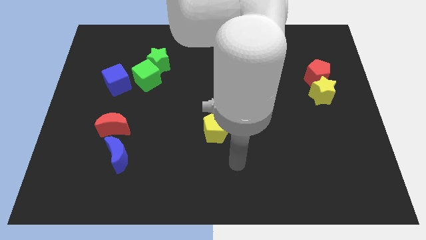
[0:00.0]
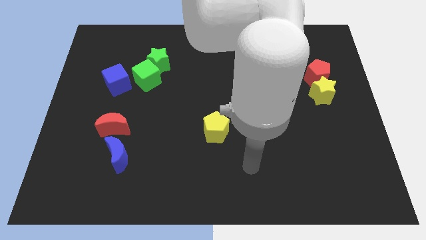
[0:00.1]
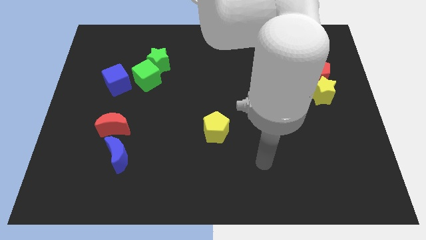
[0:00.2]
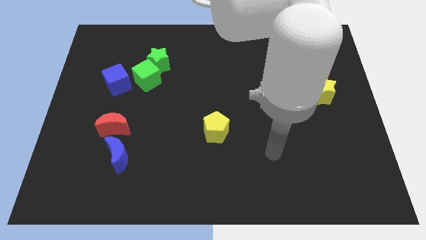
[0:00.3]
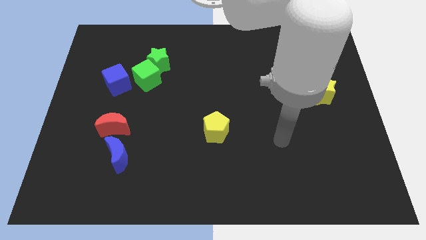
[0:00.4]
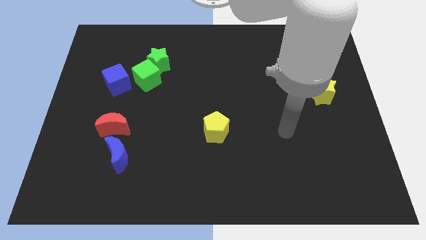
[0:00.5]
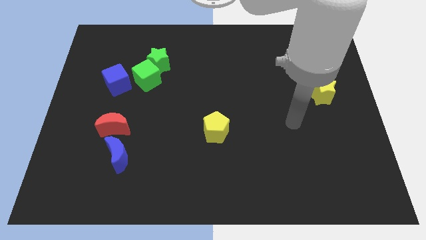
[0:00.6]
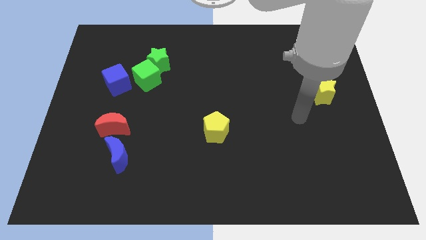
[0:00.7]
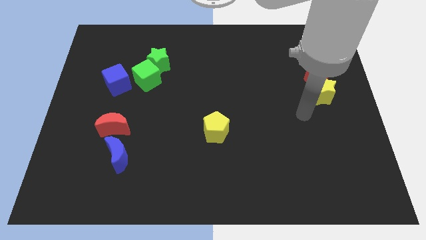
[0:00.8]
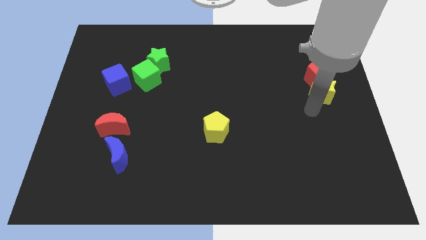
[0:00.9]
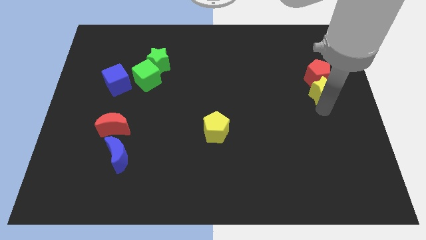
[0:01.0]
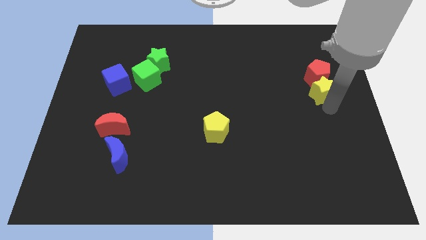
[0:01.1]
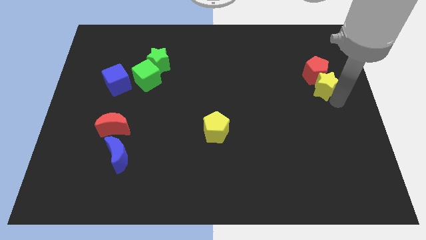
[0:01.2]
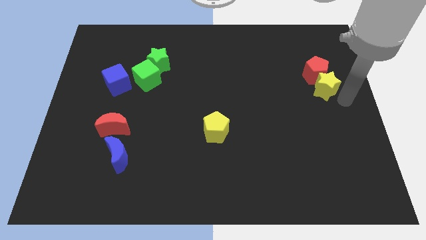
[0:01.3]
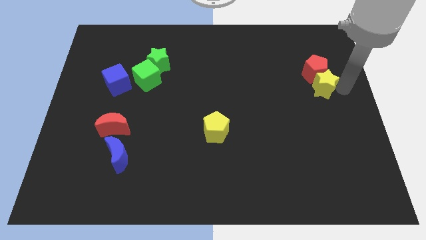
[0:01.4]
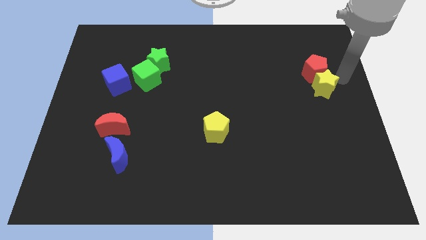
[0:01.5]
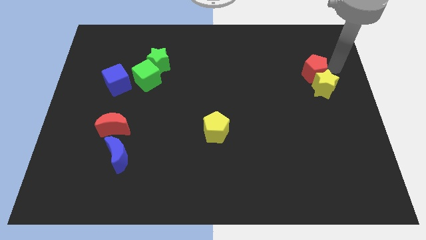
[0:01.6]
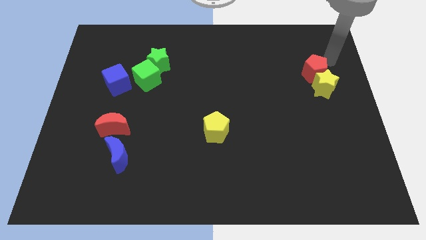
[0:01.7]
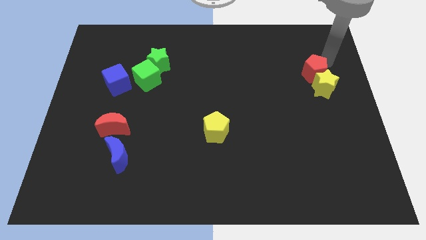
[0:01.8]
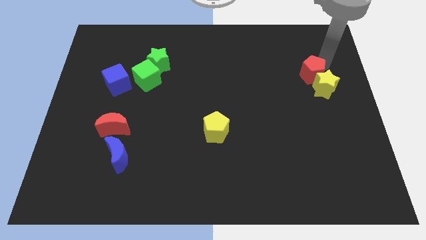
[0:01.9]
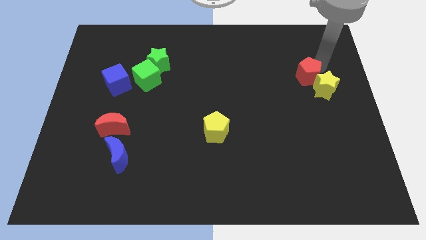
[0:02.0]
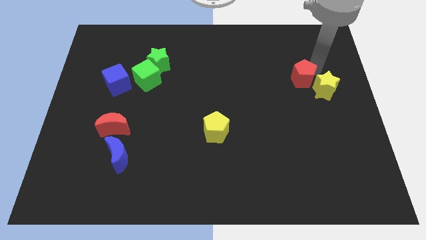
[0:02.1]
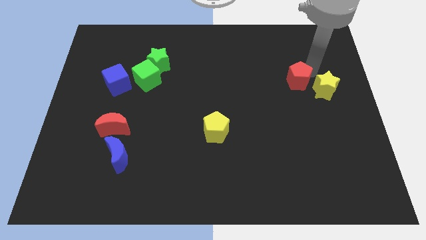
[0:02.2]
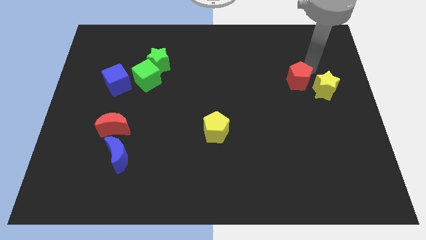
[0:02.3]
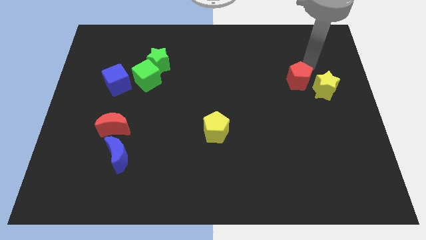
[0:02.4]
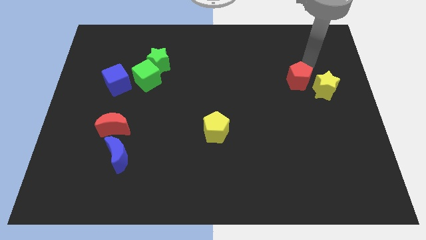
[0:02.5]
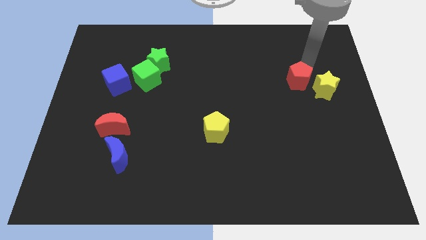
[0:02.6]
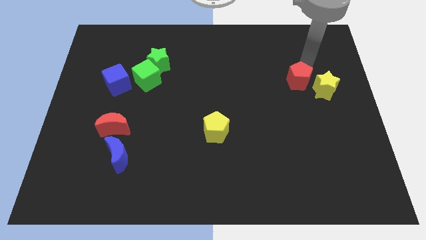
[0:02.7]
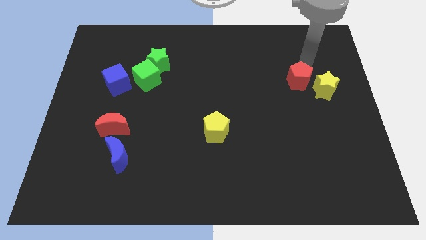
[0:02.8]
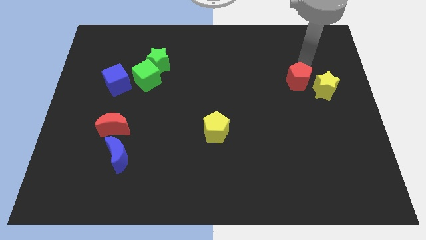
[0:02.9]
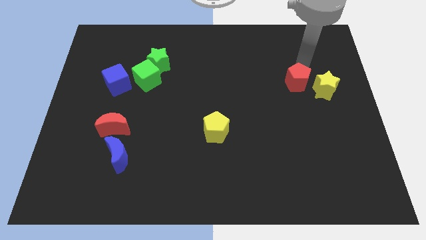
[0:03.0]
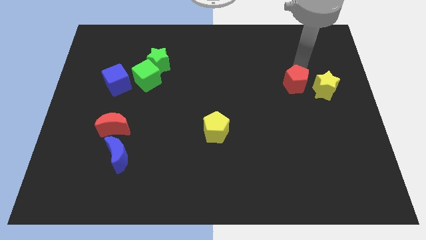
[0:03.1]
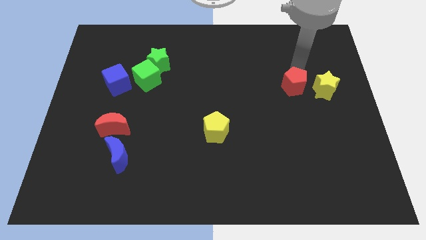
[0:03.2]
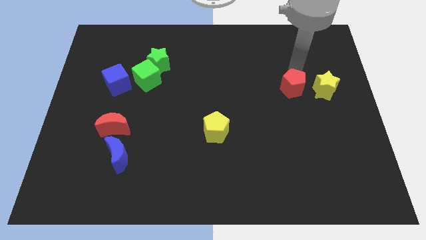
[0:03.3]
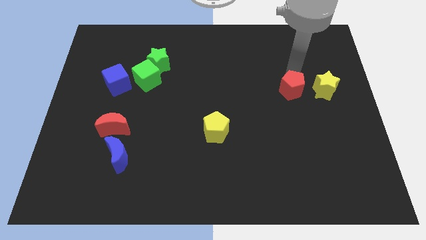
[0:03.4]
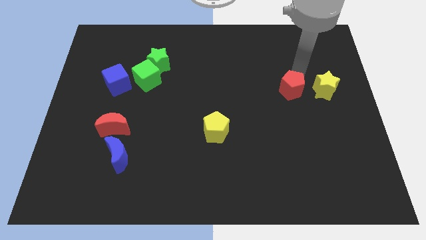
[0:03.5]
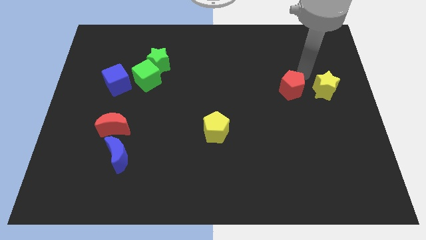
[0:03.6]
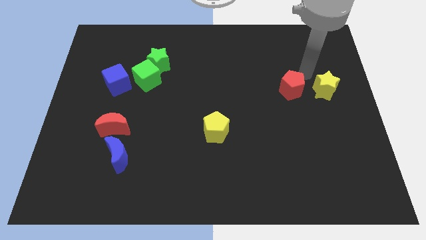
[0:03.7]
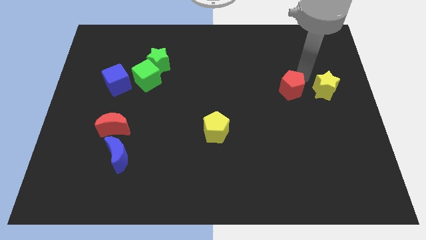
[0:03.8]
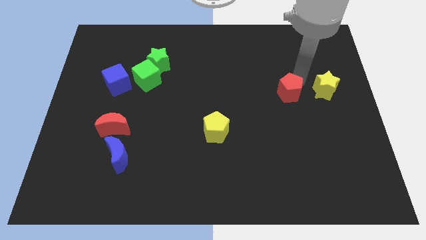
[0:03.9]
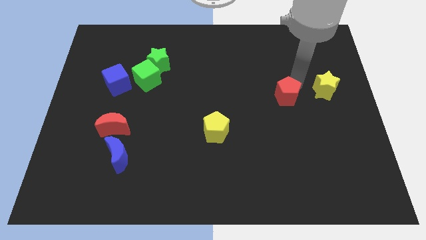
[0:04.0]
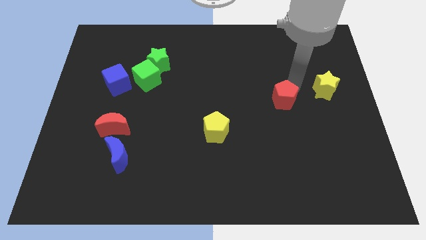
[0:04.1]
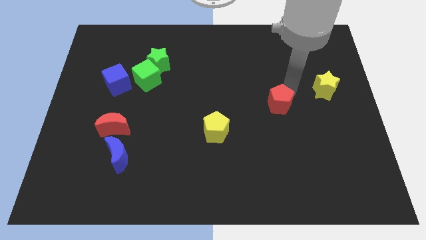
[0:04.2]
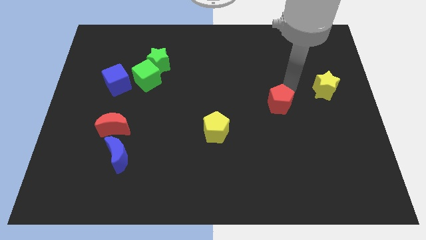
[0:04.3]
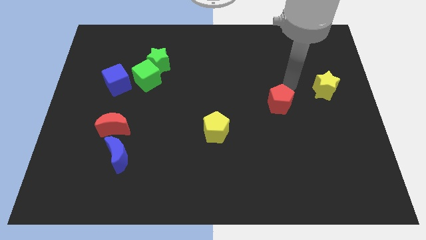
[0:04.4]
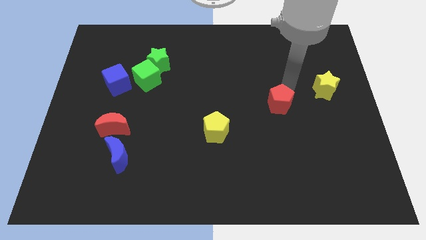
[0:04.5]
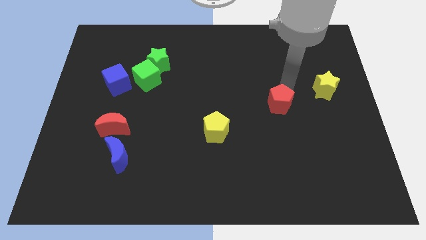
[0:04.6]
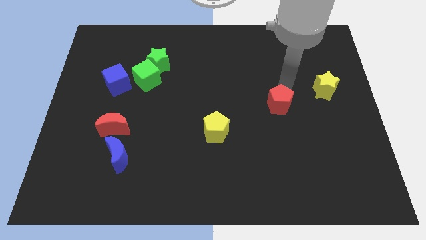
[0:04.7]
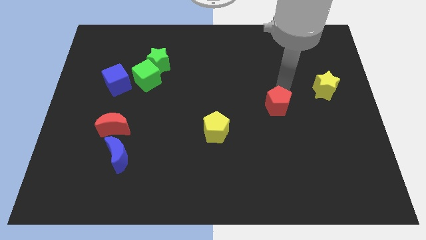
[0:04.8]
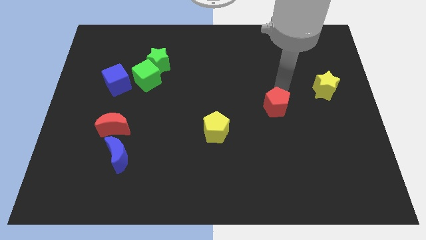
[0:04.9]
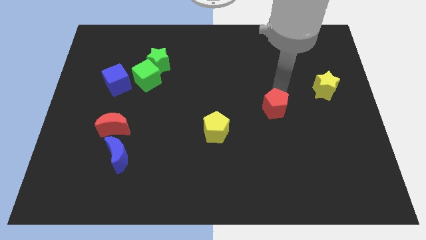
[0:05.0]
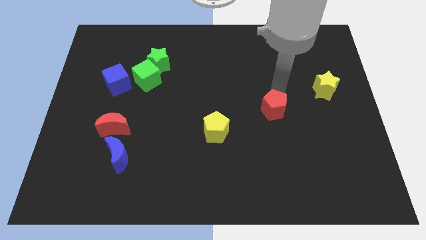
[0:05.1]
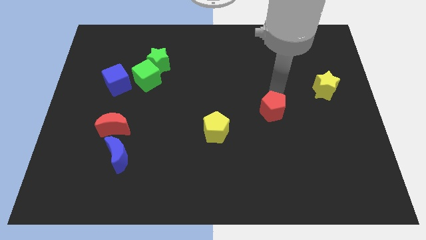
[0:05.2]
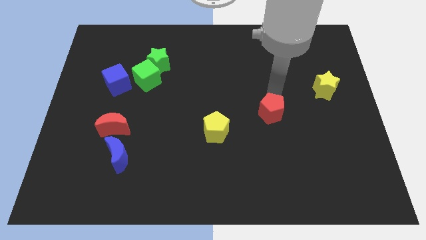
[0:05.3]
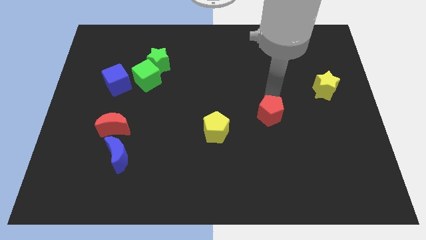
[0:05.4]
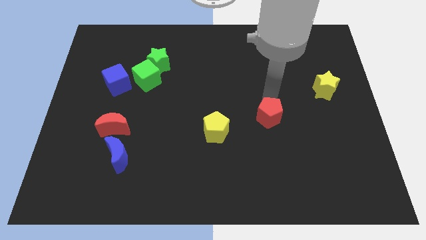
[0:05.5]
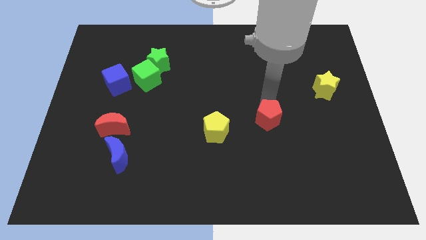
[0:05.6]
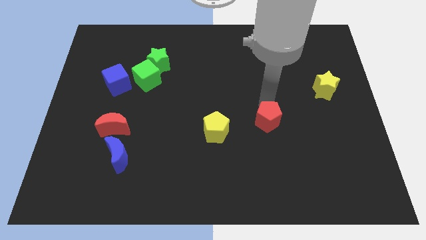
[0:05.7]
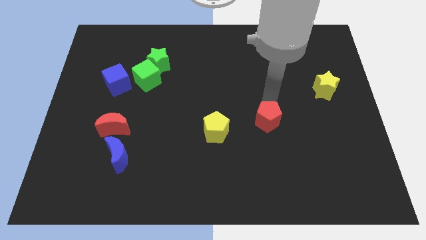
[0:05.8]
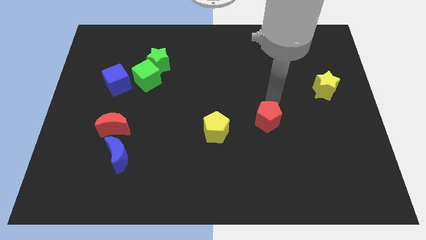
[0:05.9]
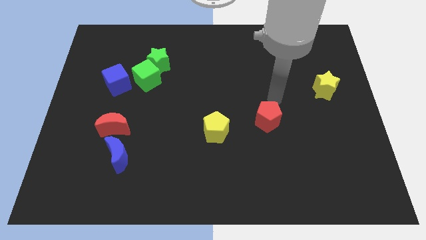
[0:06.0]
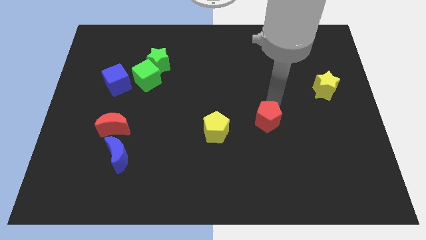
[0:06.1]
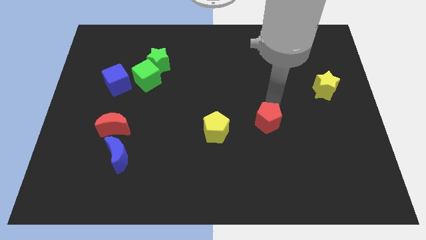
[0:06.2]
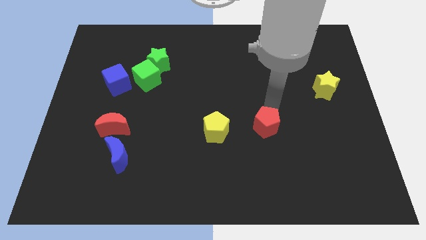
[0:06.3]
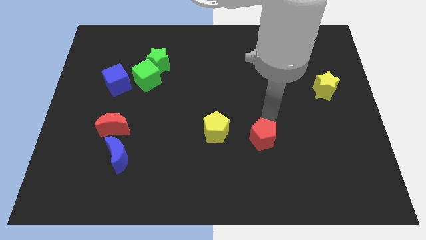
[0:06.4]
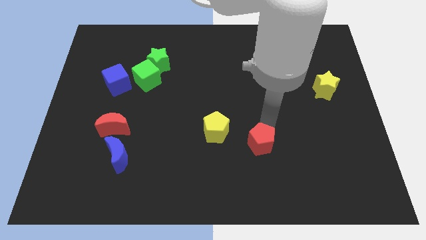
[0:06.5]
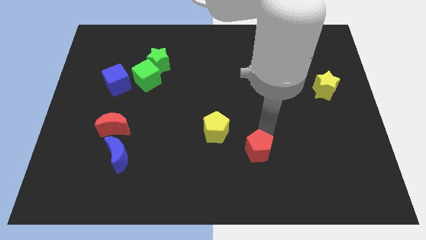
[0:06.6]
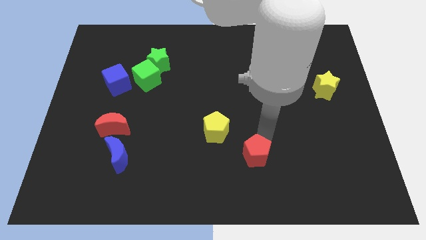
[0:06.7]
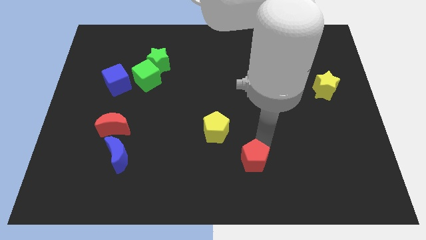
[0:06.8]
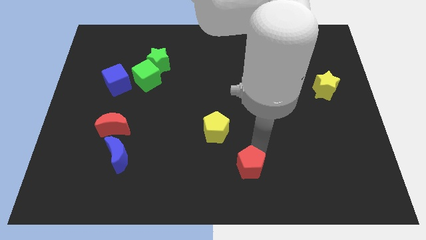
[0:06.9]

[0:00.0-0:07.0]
slide the red pentagon to the bottom
